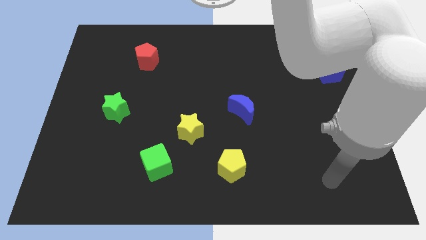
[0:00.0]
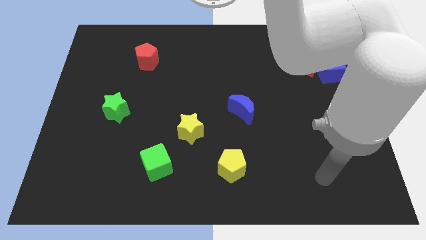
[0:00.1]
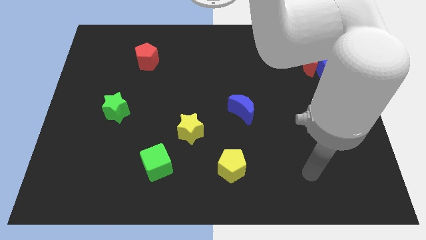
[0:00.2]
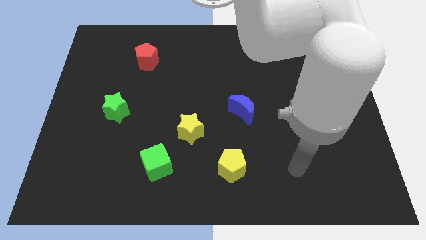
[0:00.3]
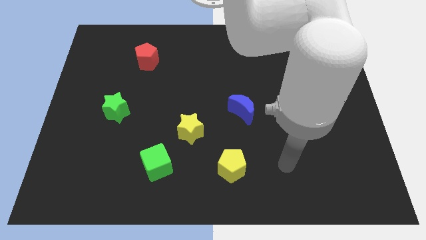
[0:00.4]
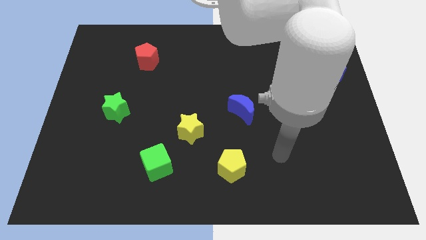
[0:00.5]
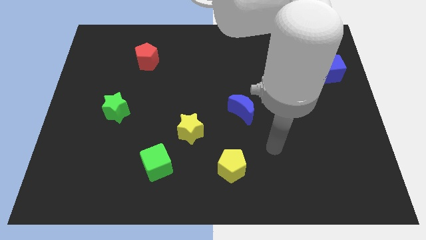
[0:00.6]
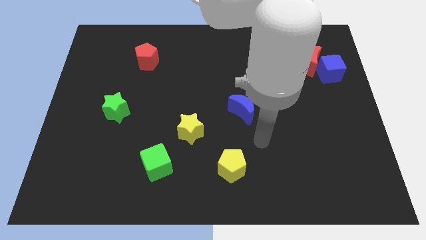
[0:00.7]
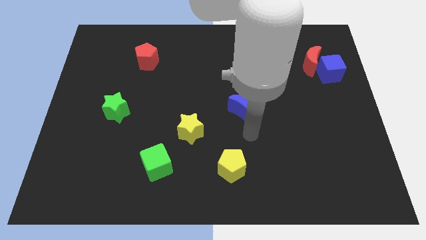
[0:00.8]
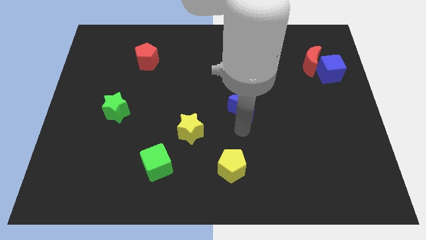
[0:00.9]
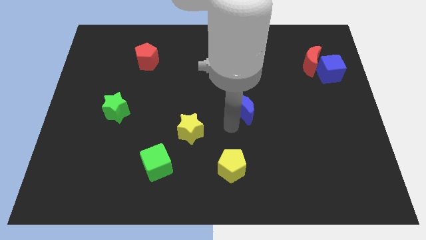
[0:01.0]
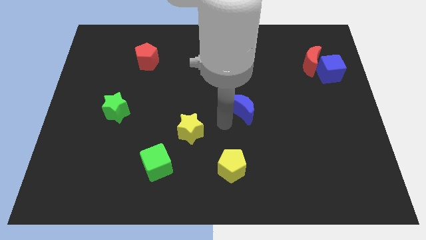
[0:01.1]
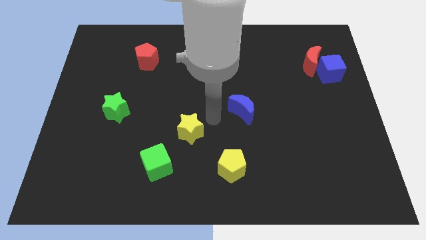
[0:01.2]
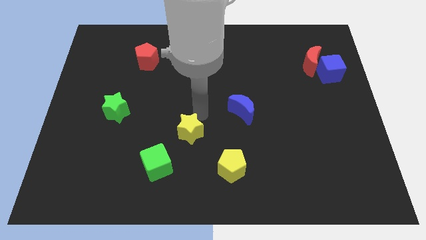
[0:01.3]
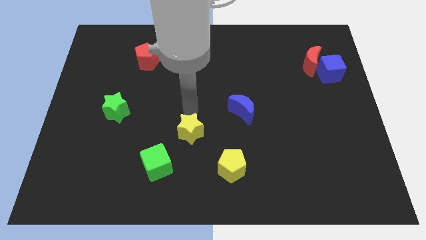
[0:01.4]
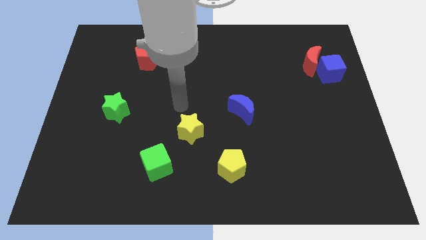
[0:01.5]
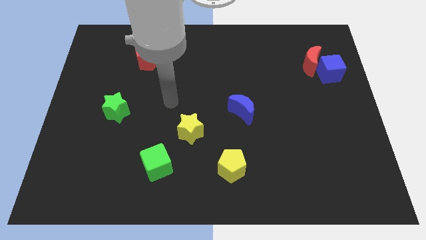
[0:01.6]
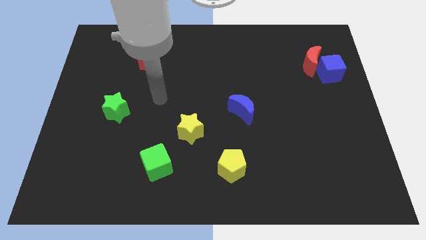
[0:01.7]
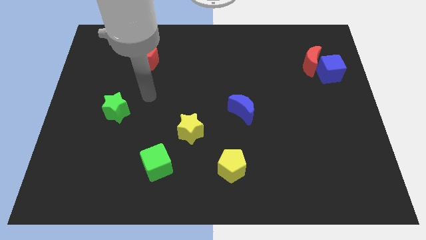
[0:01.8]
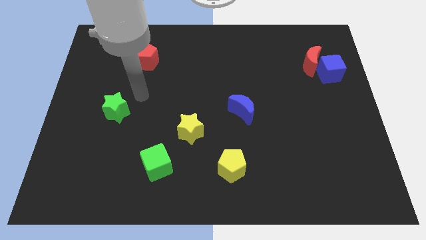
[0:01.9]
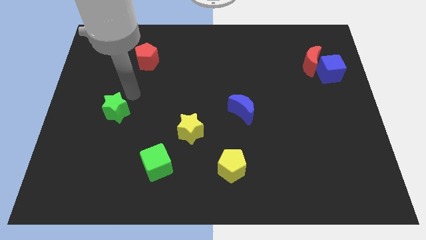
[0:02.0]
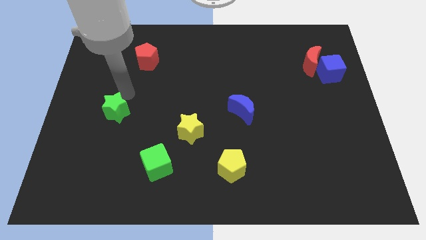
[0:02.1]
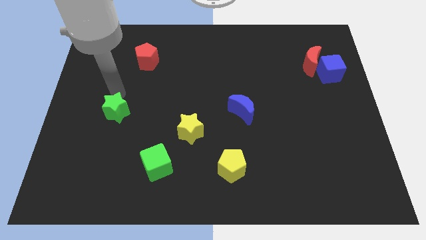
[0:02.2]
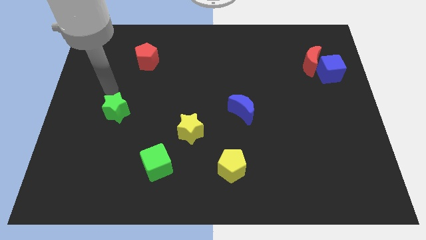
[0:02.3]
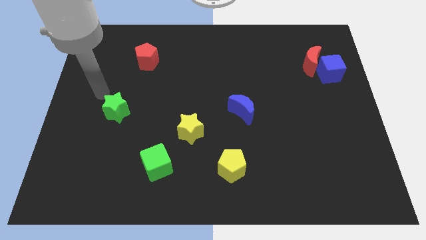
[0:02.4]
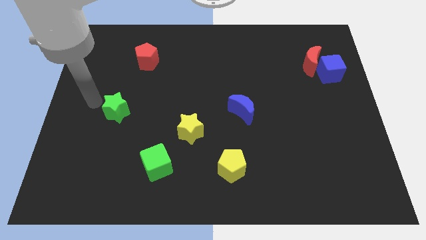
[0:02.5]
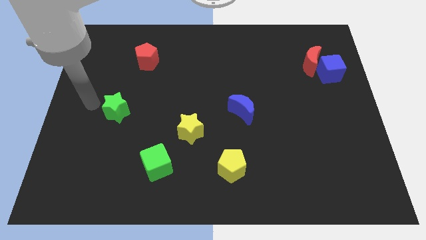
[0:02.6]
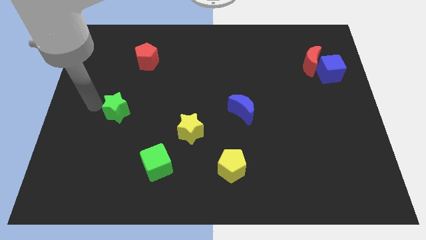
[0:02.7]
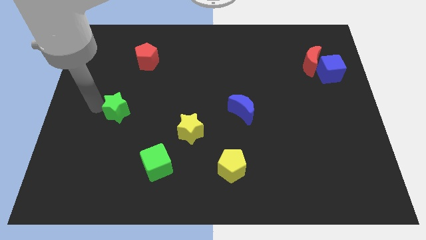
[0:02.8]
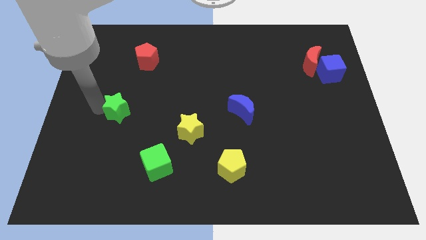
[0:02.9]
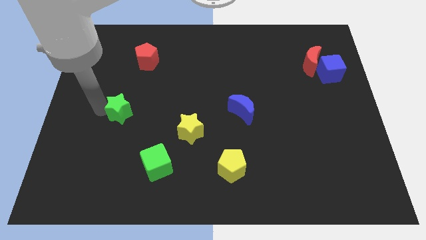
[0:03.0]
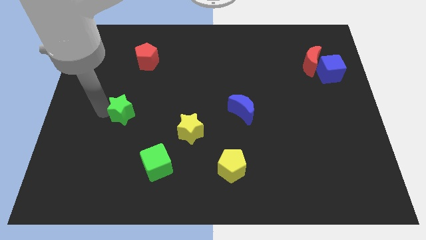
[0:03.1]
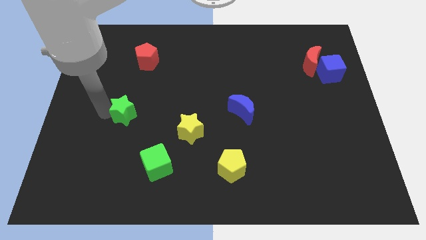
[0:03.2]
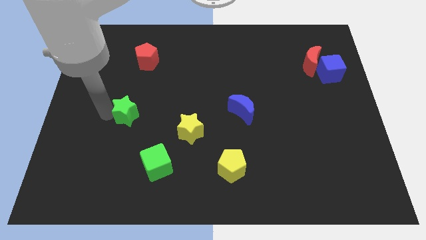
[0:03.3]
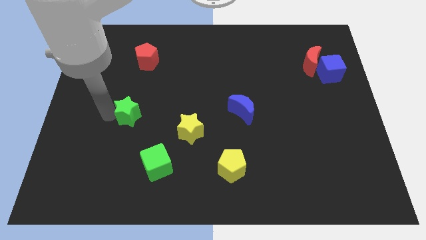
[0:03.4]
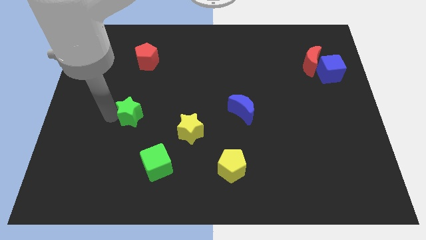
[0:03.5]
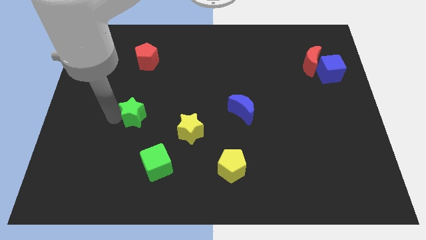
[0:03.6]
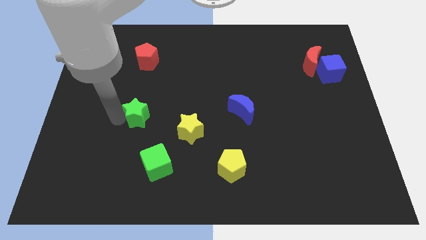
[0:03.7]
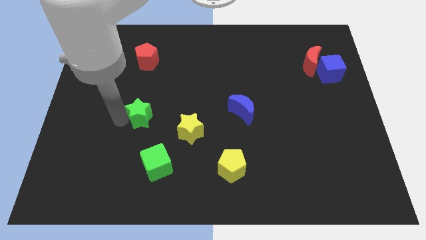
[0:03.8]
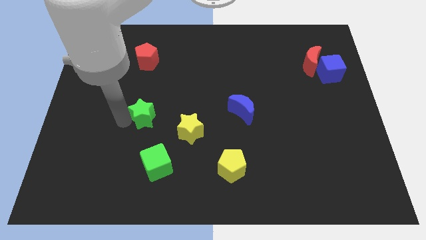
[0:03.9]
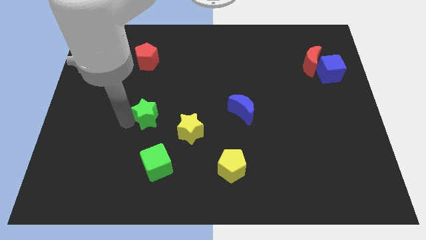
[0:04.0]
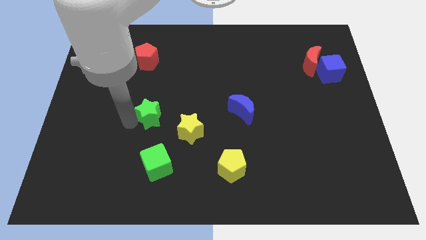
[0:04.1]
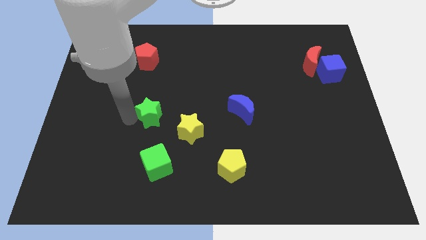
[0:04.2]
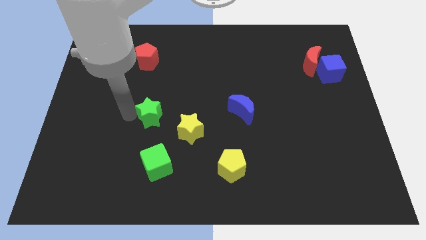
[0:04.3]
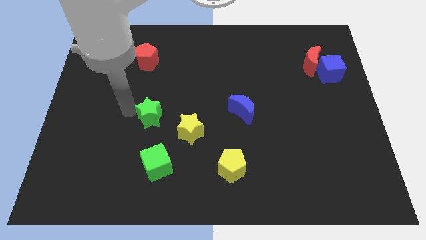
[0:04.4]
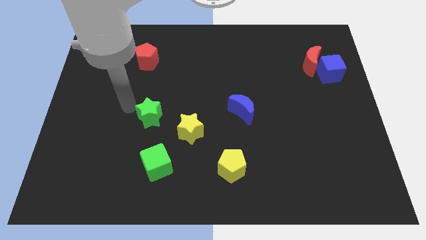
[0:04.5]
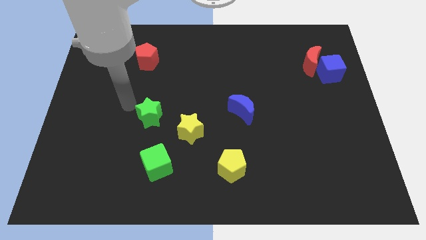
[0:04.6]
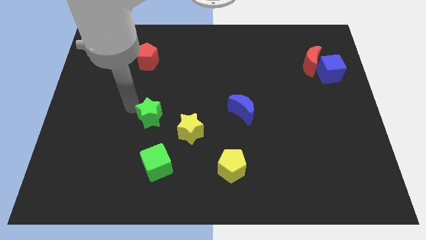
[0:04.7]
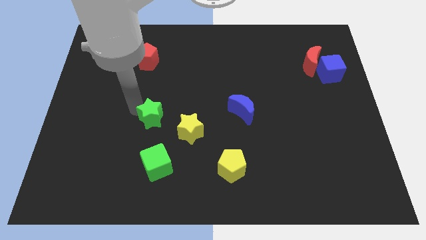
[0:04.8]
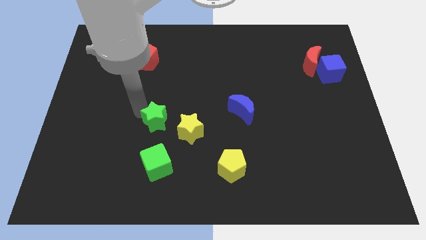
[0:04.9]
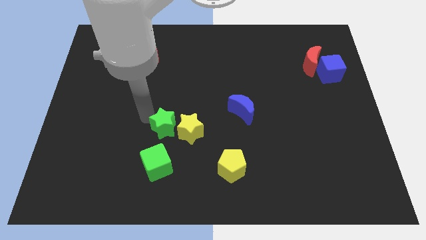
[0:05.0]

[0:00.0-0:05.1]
put the green star close to the yellow star

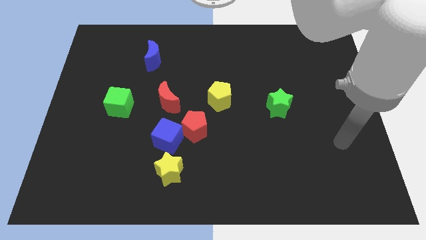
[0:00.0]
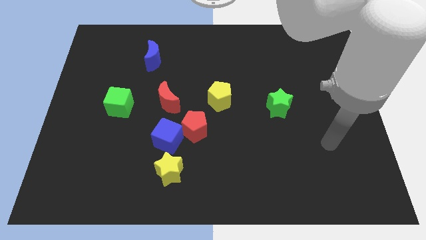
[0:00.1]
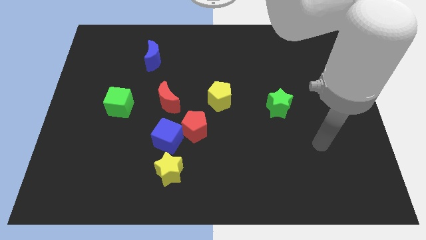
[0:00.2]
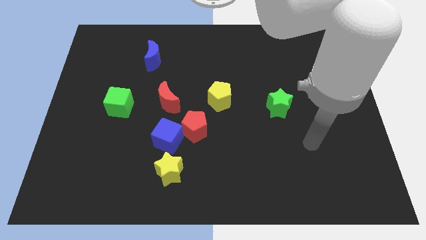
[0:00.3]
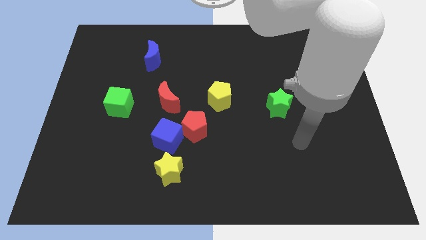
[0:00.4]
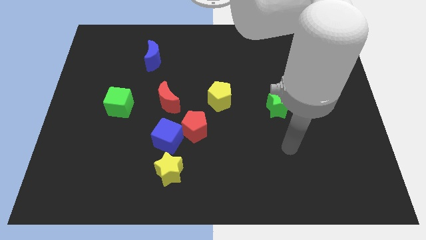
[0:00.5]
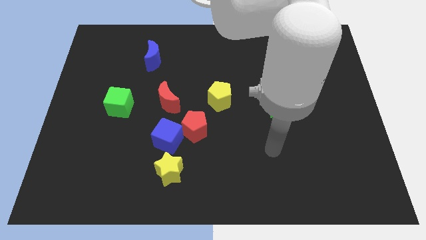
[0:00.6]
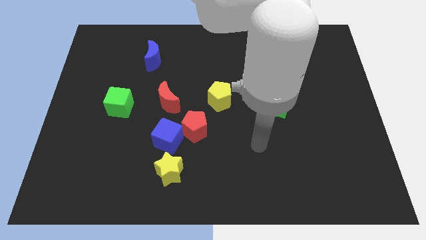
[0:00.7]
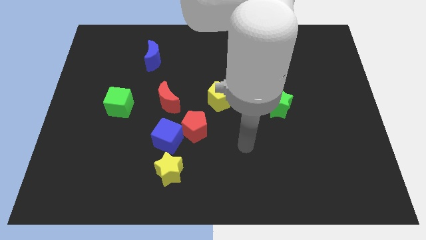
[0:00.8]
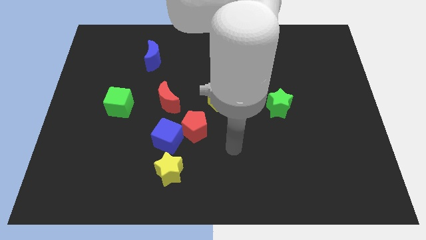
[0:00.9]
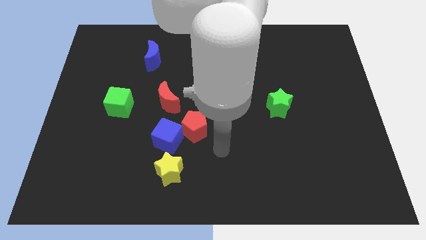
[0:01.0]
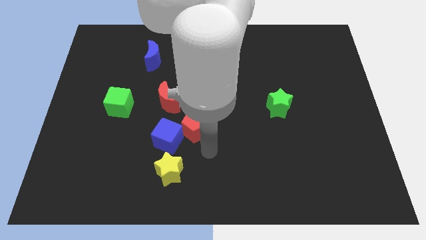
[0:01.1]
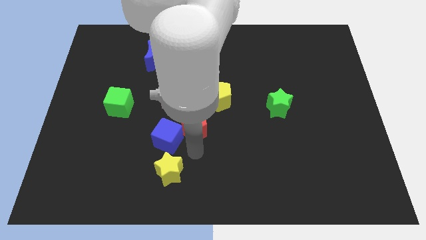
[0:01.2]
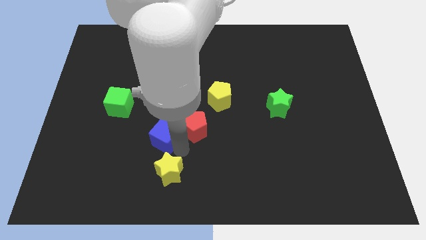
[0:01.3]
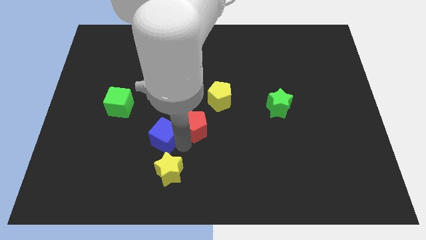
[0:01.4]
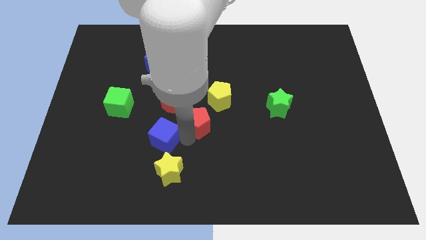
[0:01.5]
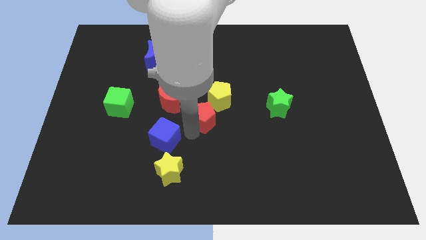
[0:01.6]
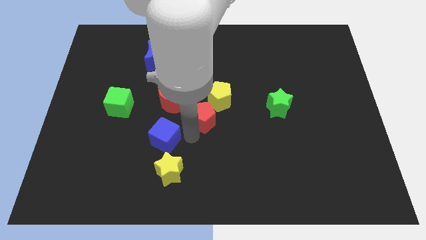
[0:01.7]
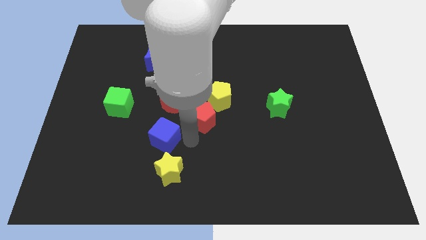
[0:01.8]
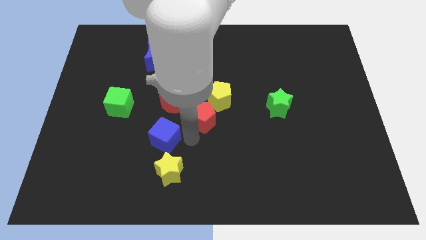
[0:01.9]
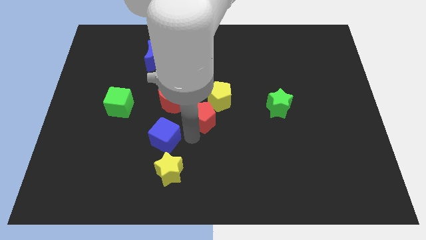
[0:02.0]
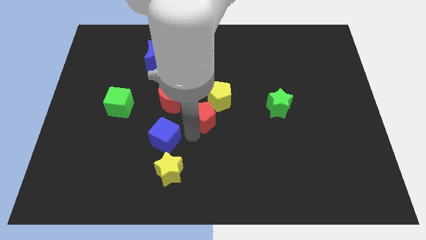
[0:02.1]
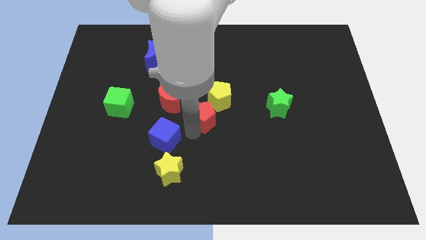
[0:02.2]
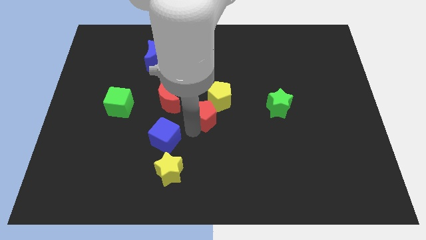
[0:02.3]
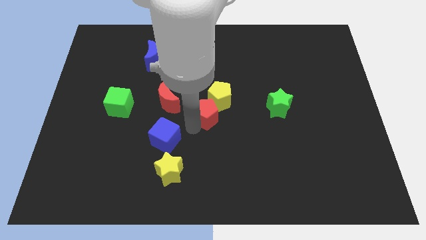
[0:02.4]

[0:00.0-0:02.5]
push the red pentagon to the yellow pentagon
